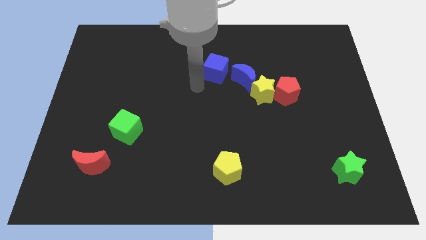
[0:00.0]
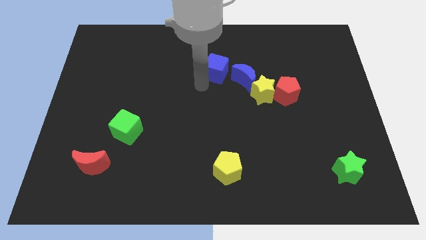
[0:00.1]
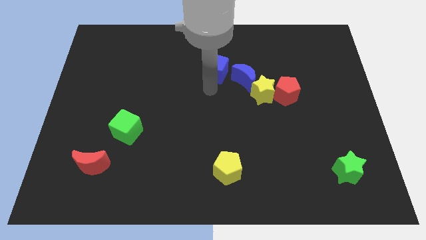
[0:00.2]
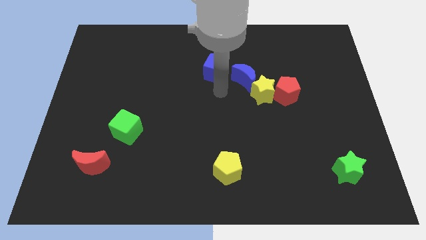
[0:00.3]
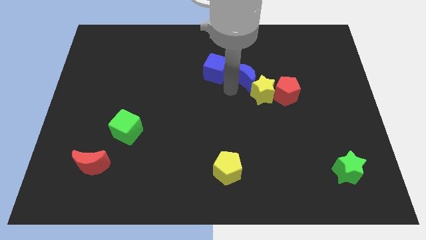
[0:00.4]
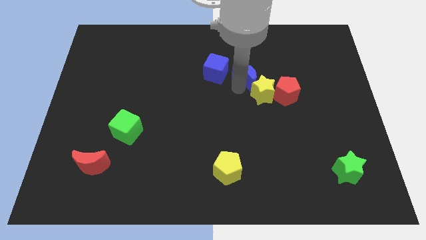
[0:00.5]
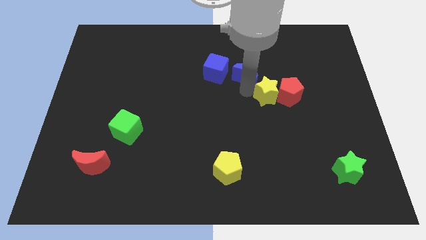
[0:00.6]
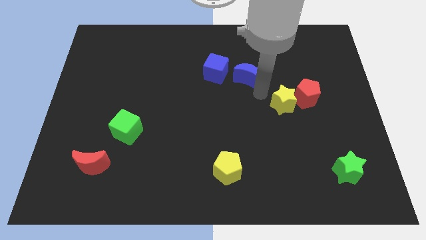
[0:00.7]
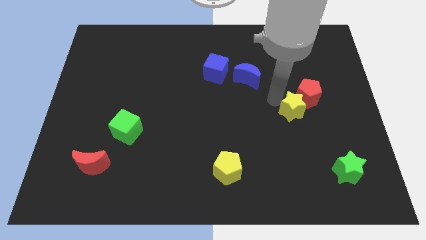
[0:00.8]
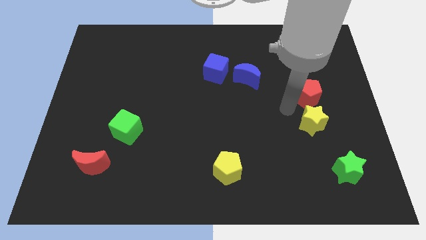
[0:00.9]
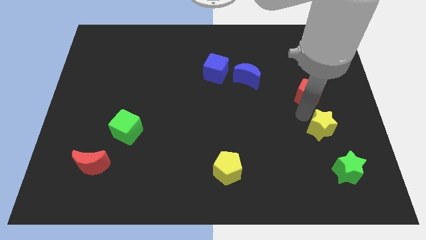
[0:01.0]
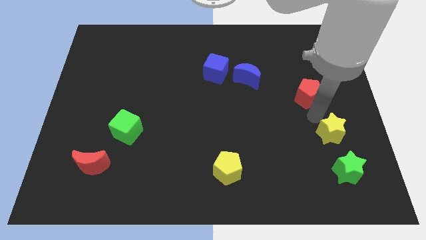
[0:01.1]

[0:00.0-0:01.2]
move the red pentagon away from the yellow star

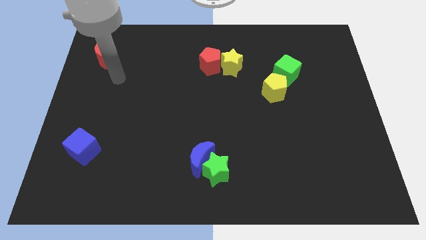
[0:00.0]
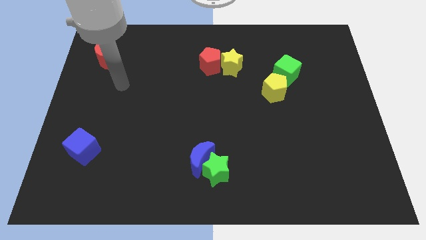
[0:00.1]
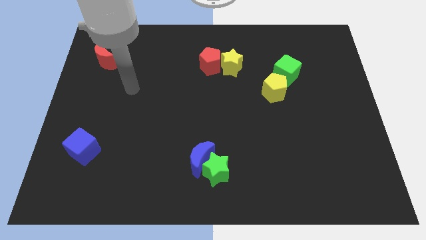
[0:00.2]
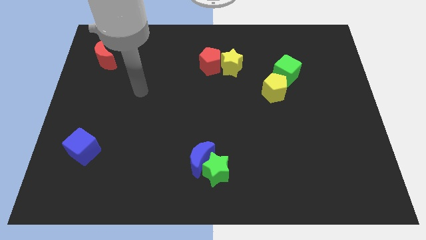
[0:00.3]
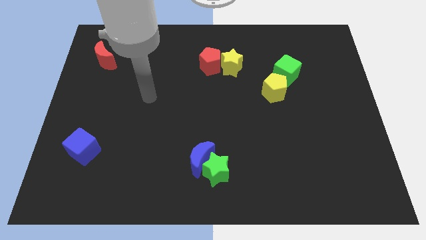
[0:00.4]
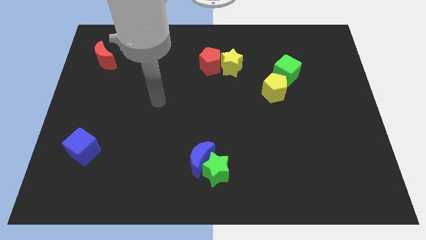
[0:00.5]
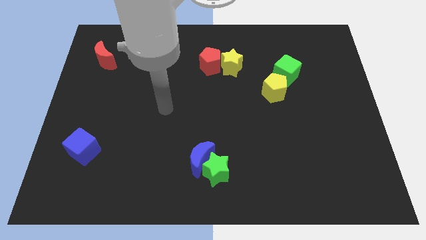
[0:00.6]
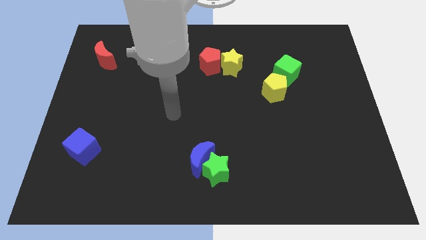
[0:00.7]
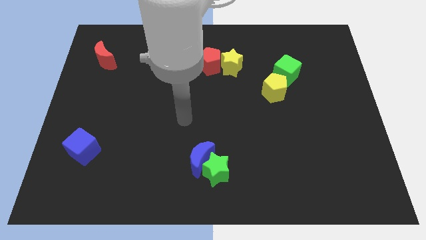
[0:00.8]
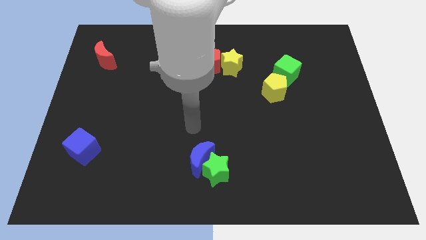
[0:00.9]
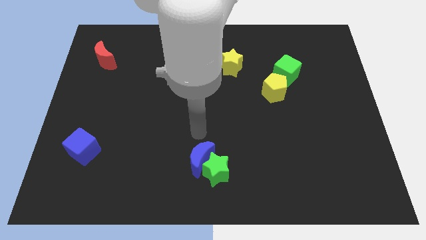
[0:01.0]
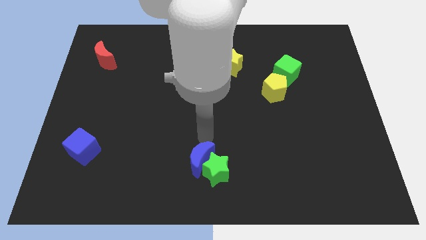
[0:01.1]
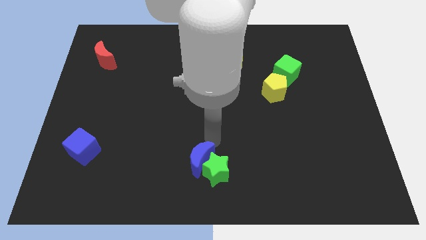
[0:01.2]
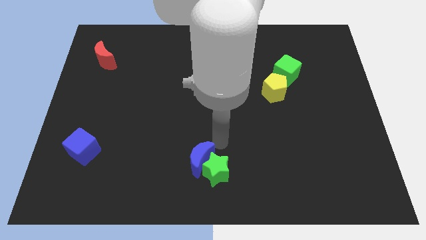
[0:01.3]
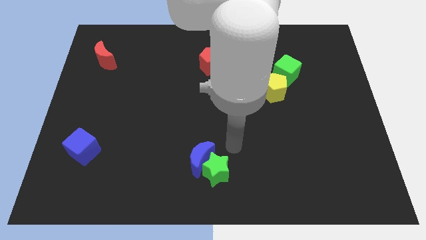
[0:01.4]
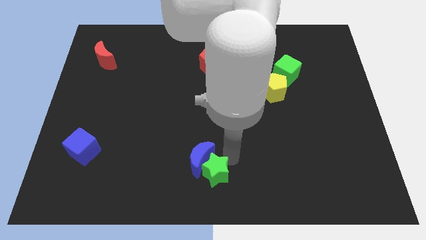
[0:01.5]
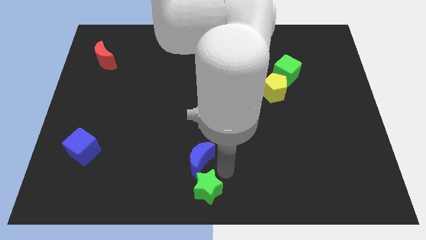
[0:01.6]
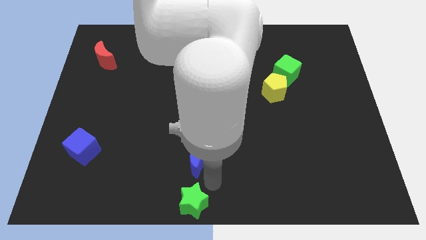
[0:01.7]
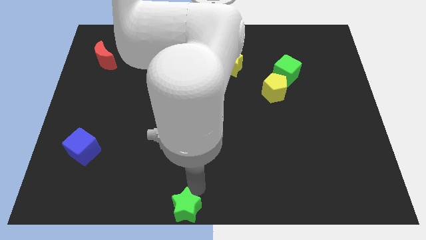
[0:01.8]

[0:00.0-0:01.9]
pull the blue moon apart from the green star

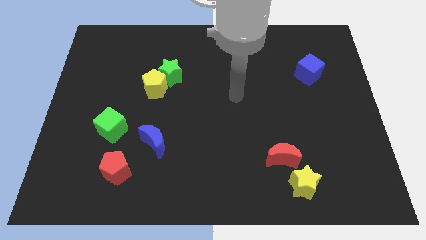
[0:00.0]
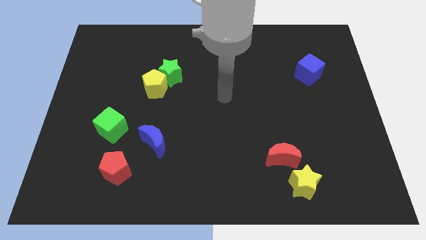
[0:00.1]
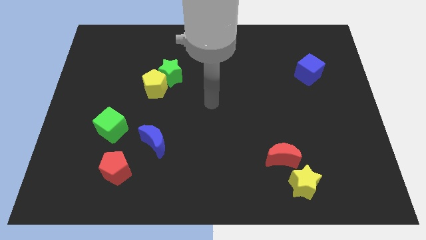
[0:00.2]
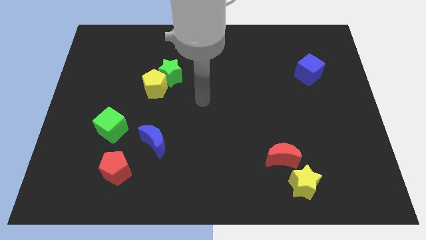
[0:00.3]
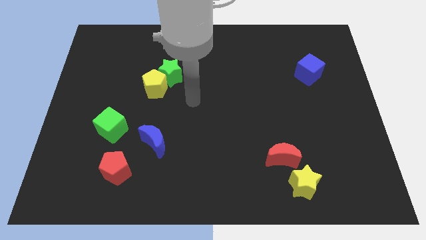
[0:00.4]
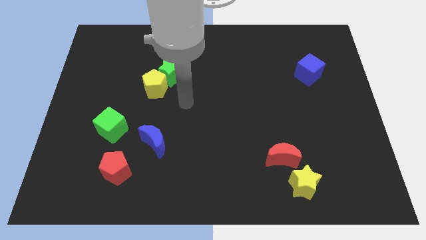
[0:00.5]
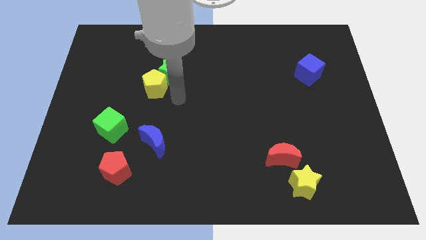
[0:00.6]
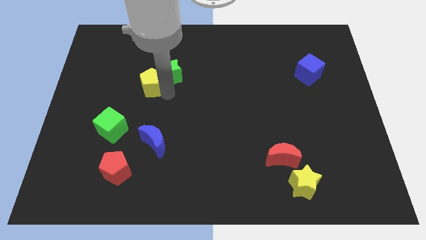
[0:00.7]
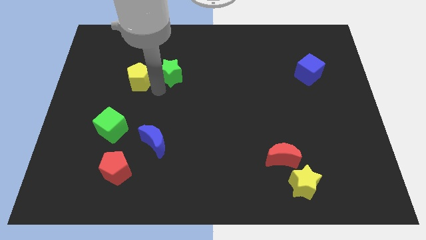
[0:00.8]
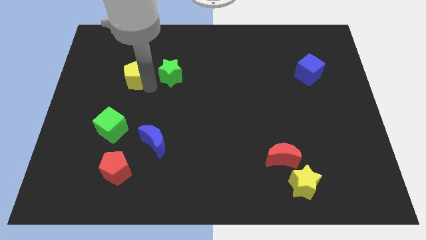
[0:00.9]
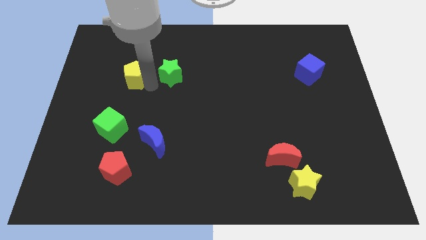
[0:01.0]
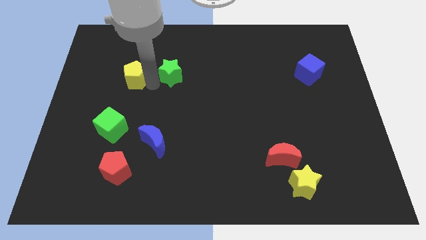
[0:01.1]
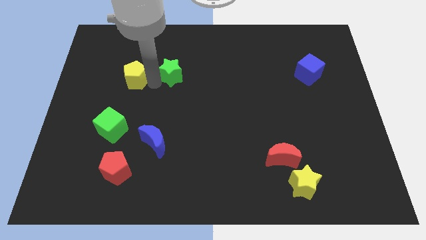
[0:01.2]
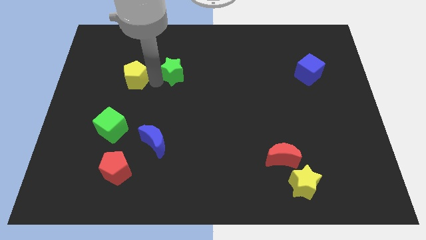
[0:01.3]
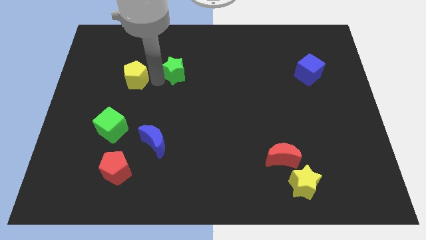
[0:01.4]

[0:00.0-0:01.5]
pull the green star apart from the yellow pentagon

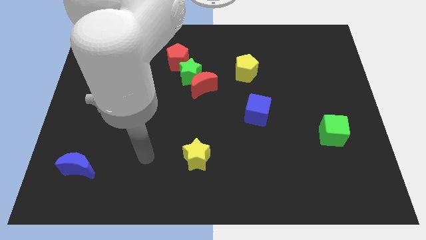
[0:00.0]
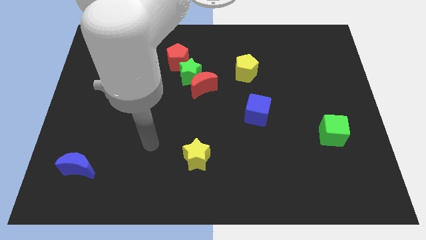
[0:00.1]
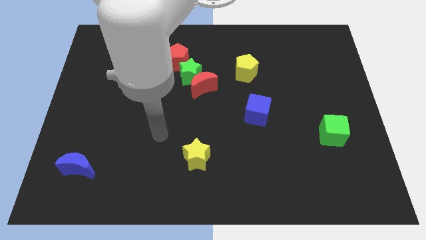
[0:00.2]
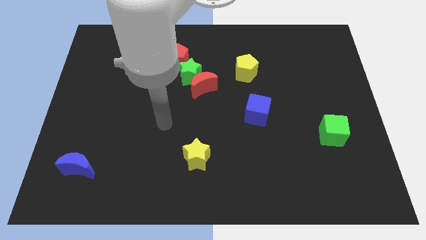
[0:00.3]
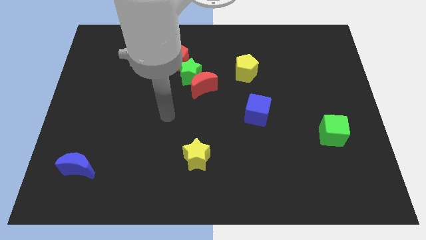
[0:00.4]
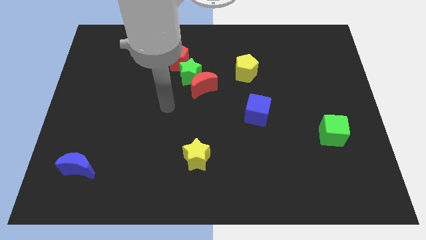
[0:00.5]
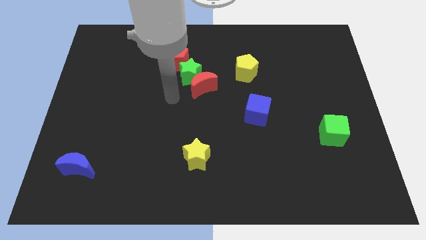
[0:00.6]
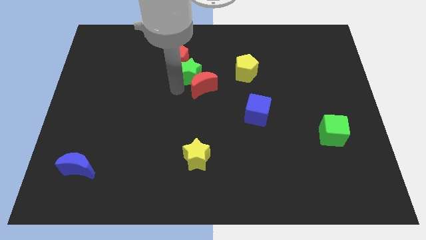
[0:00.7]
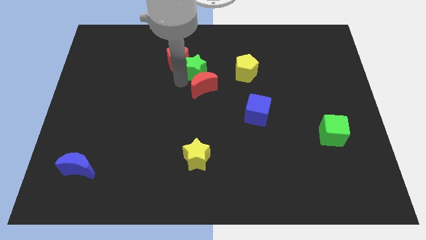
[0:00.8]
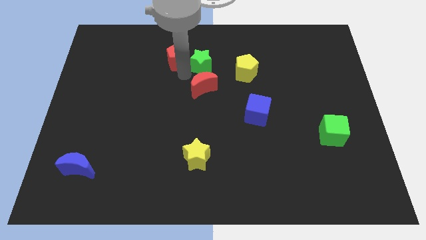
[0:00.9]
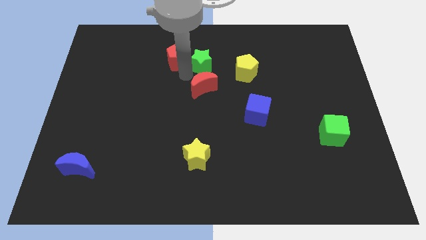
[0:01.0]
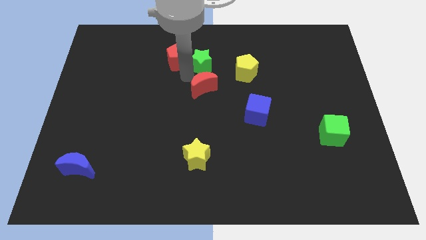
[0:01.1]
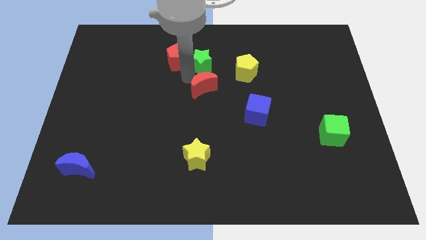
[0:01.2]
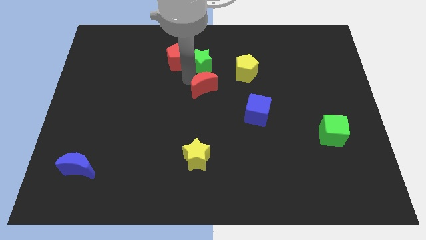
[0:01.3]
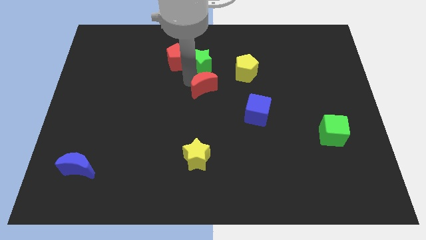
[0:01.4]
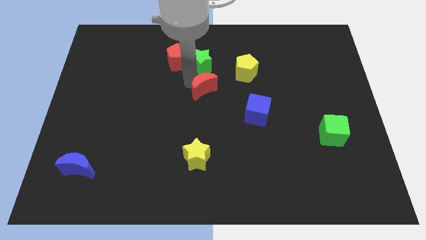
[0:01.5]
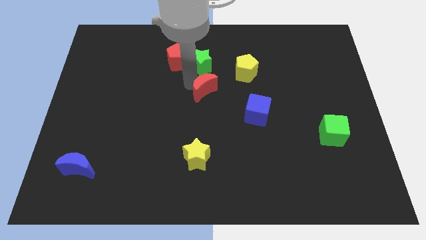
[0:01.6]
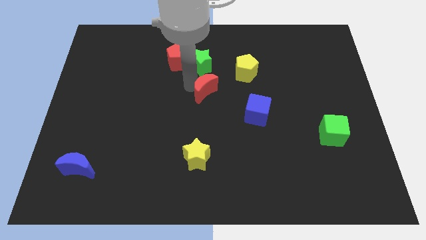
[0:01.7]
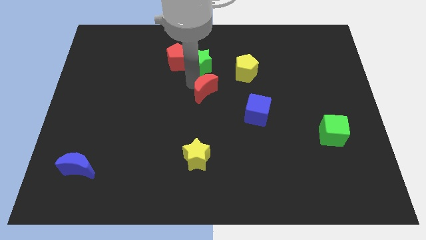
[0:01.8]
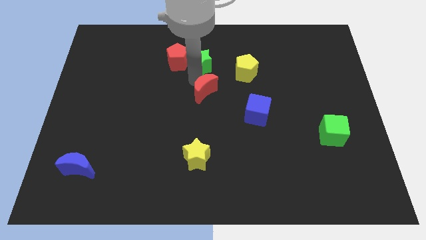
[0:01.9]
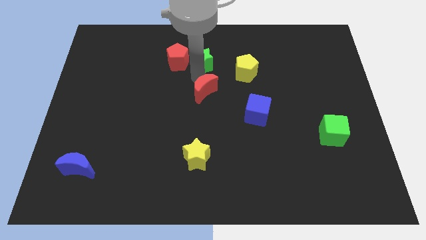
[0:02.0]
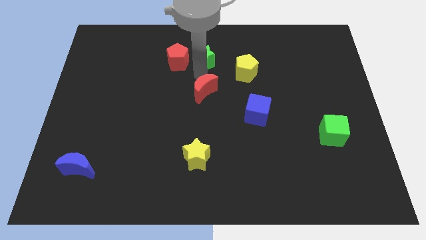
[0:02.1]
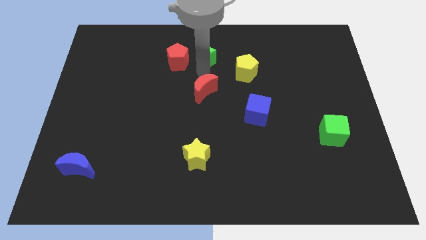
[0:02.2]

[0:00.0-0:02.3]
pull the red moon apart from the green star

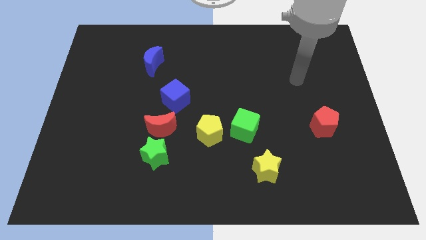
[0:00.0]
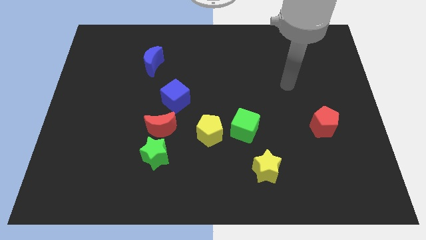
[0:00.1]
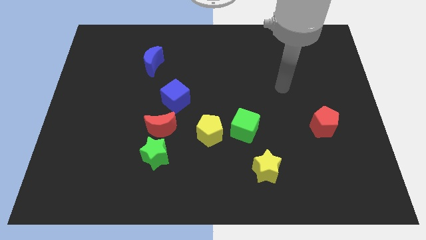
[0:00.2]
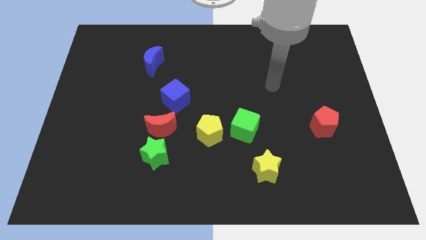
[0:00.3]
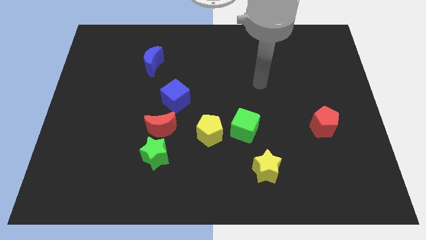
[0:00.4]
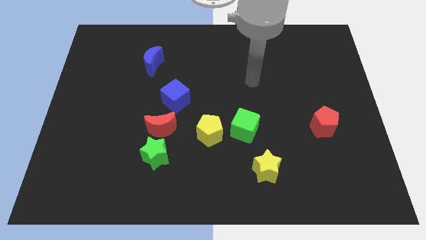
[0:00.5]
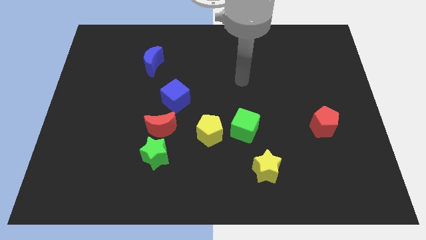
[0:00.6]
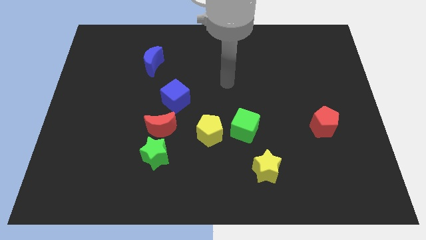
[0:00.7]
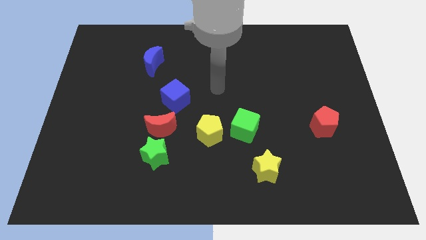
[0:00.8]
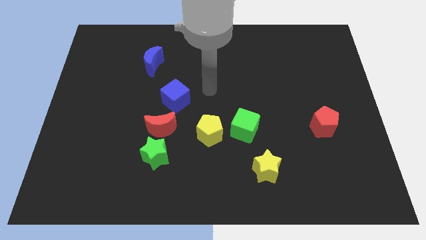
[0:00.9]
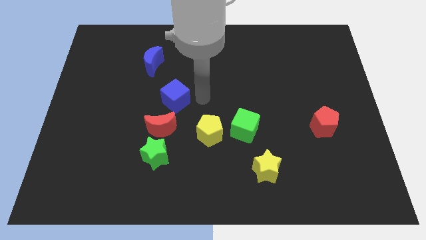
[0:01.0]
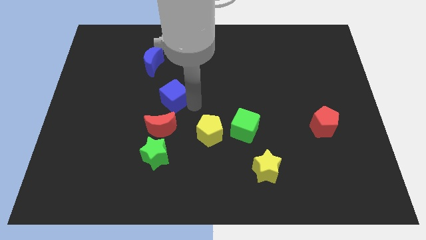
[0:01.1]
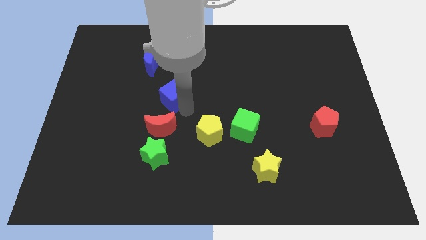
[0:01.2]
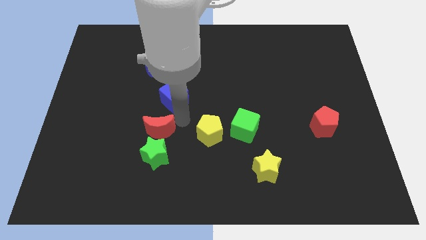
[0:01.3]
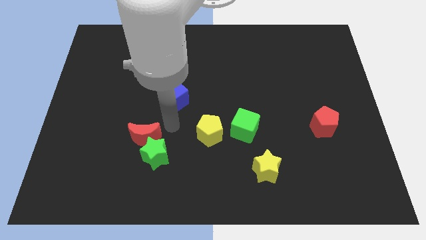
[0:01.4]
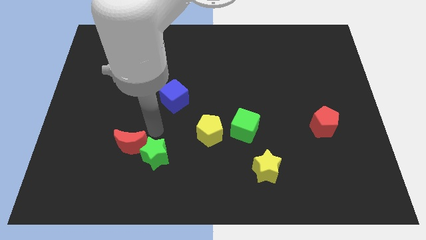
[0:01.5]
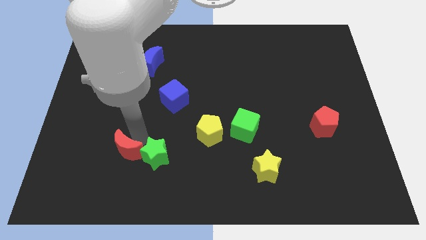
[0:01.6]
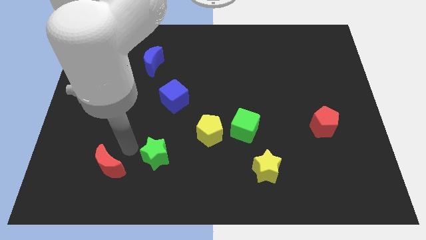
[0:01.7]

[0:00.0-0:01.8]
move the green star away from the red moon

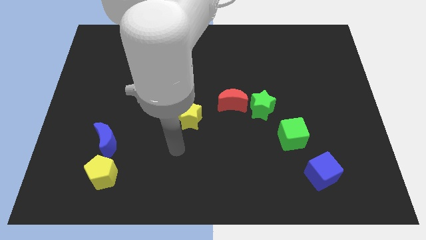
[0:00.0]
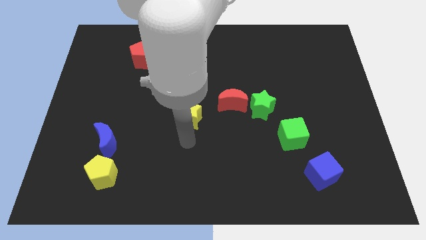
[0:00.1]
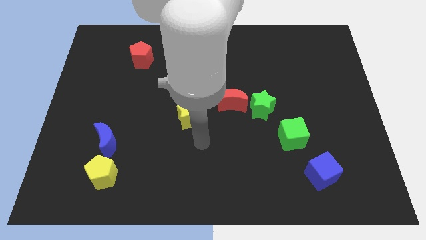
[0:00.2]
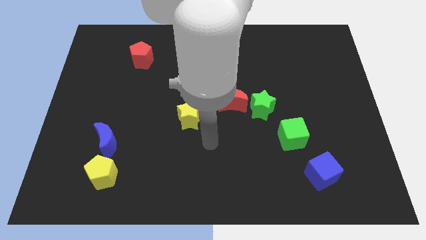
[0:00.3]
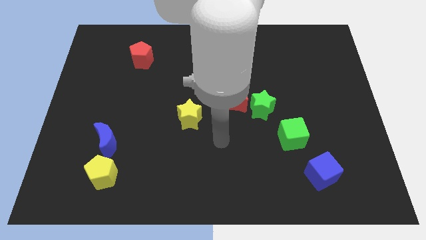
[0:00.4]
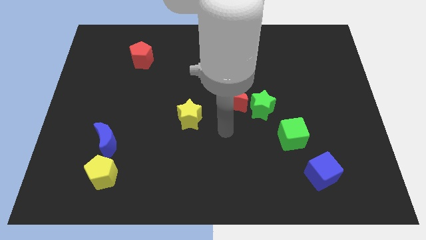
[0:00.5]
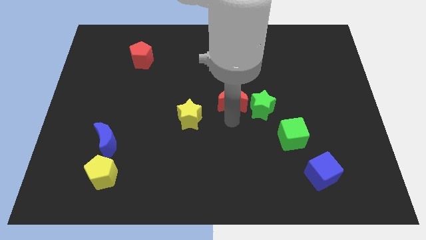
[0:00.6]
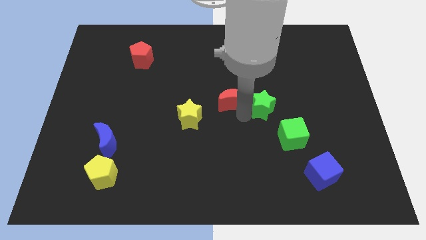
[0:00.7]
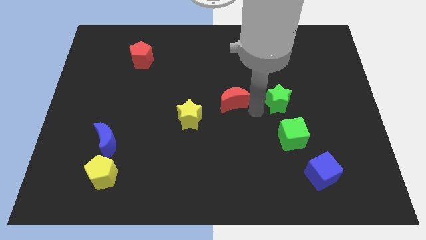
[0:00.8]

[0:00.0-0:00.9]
separate the red moon from the green star
